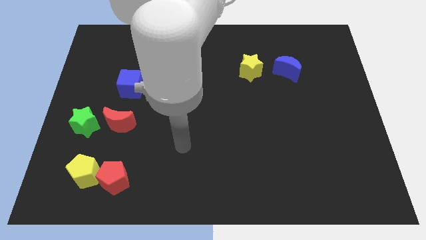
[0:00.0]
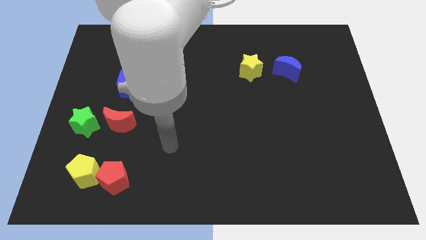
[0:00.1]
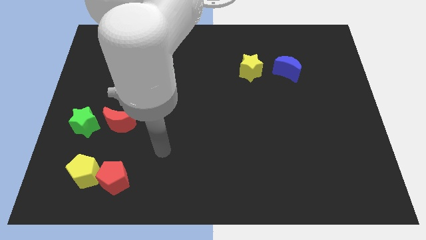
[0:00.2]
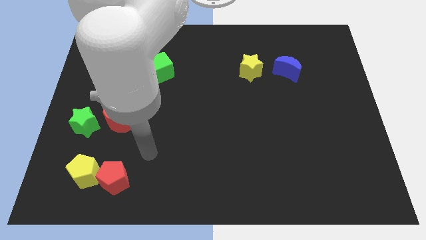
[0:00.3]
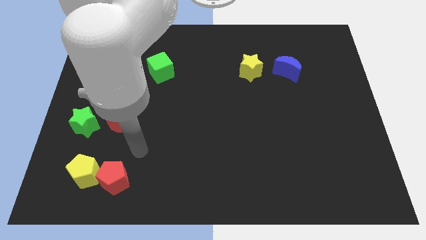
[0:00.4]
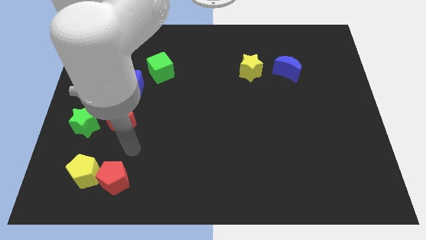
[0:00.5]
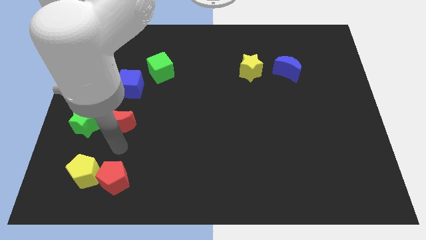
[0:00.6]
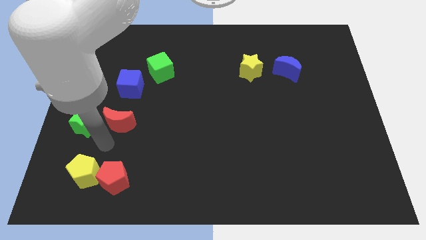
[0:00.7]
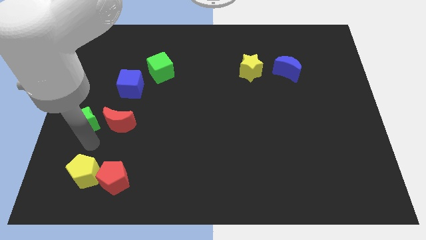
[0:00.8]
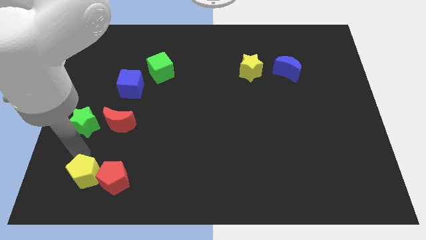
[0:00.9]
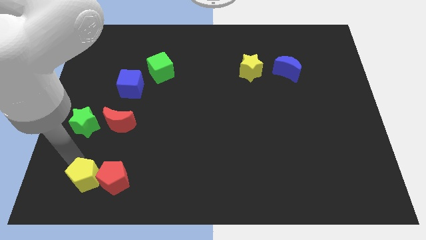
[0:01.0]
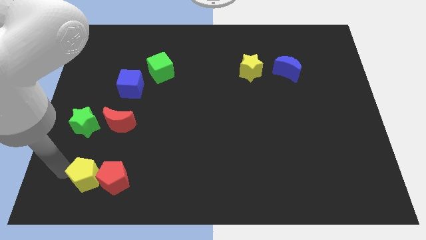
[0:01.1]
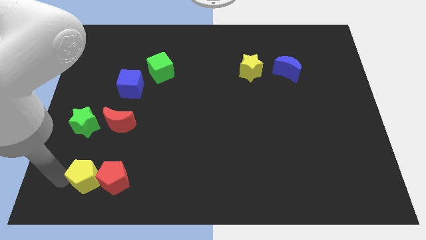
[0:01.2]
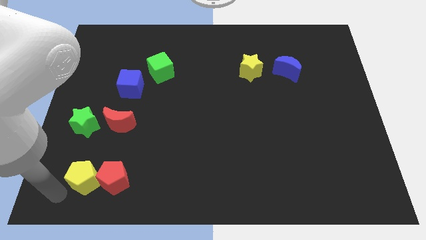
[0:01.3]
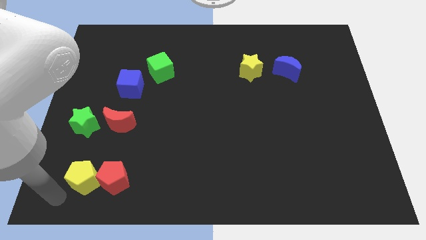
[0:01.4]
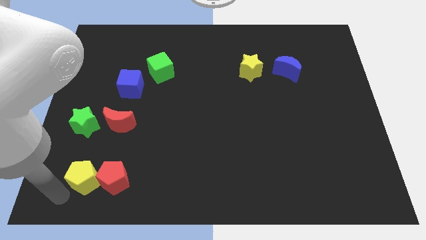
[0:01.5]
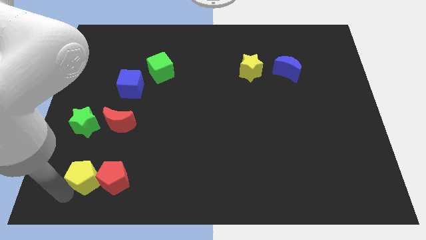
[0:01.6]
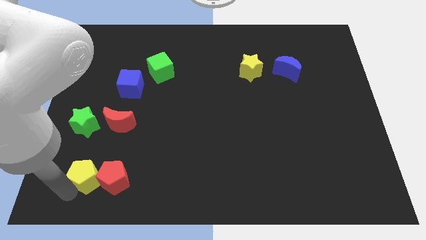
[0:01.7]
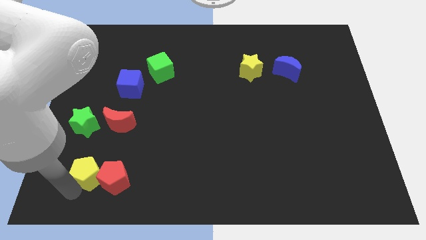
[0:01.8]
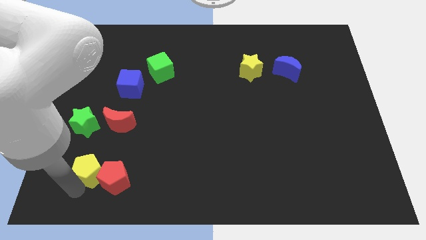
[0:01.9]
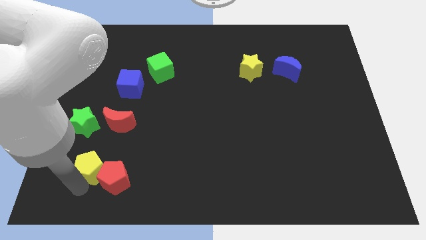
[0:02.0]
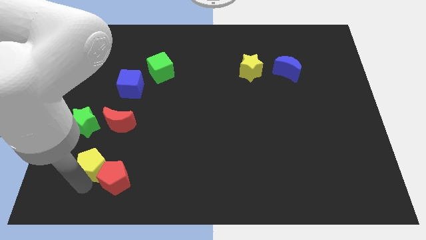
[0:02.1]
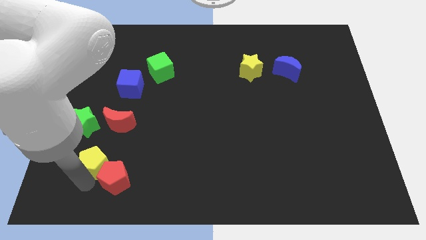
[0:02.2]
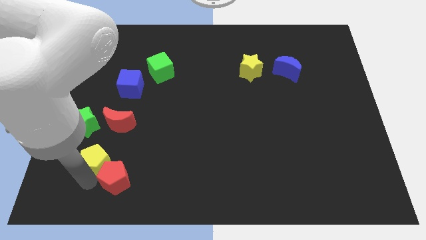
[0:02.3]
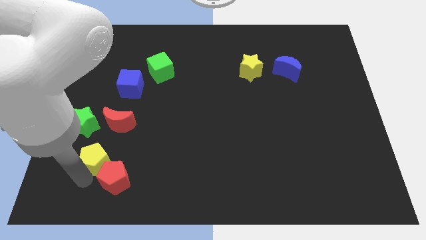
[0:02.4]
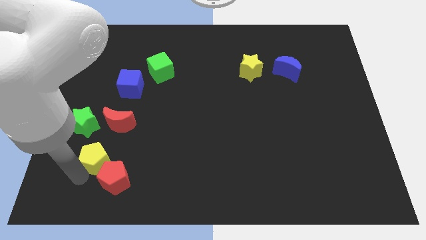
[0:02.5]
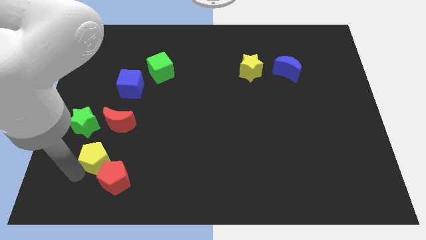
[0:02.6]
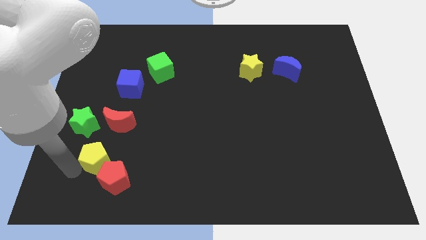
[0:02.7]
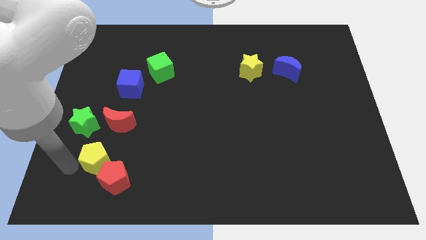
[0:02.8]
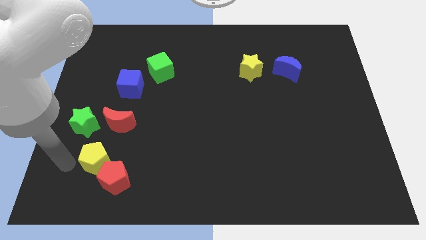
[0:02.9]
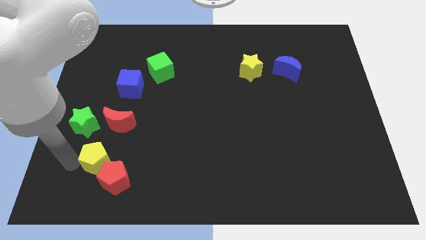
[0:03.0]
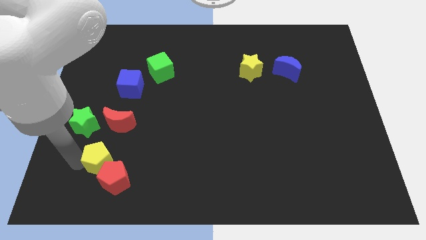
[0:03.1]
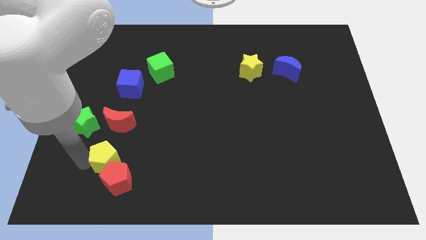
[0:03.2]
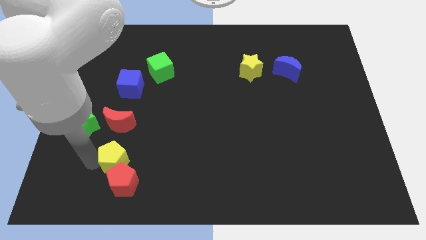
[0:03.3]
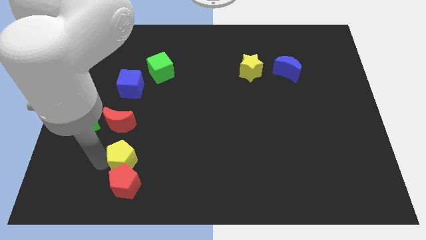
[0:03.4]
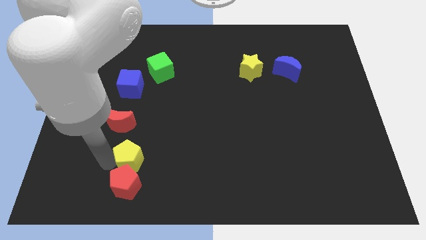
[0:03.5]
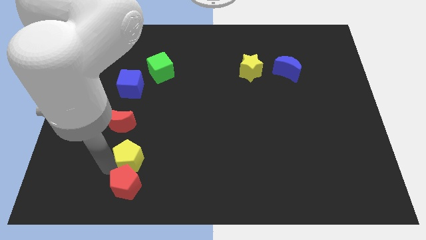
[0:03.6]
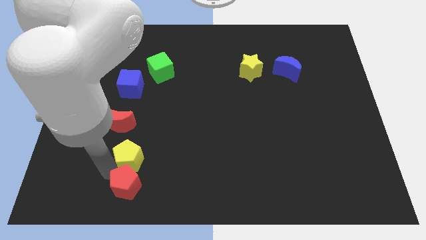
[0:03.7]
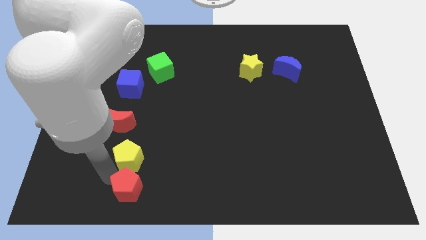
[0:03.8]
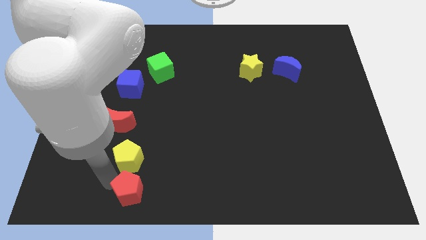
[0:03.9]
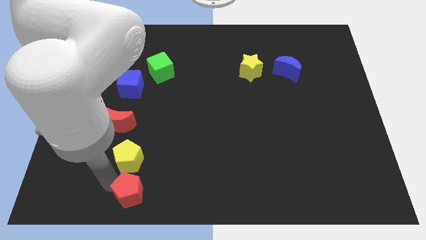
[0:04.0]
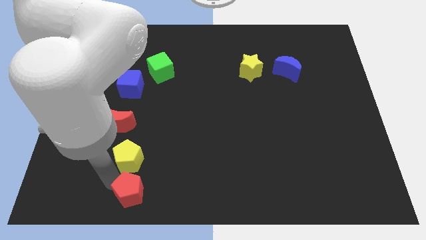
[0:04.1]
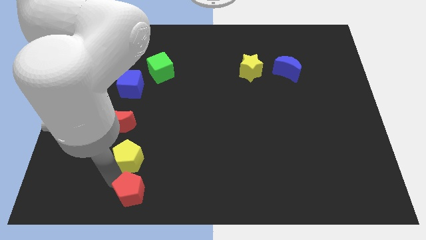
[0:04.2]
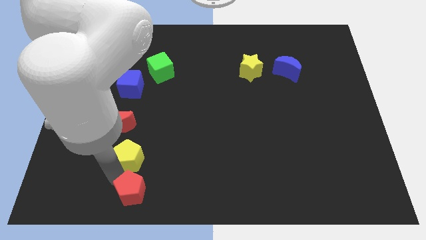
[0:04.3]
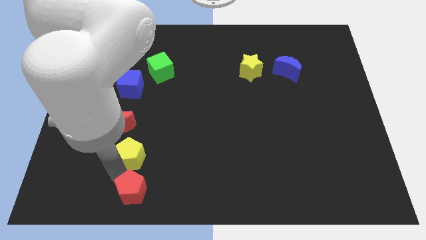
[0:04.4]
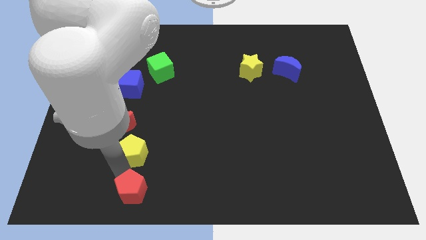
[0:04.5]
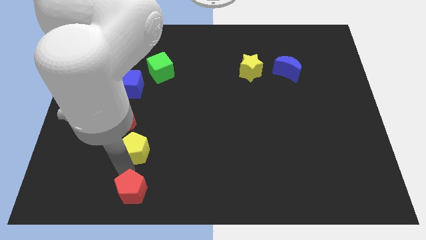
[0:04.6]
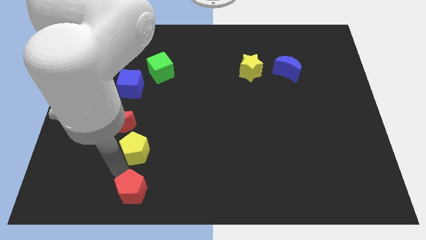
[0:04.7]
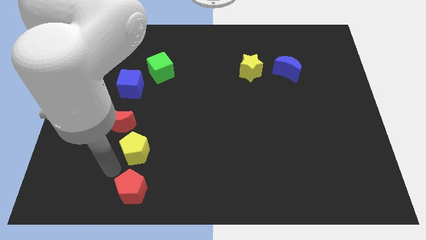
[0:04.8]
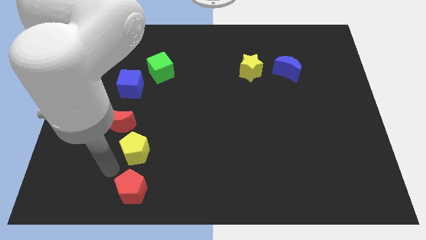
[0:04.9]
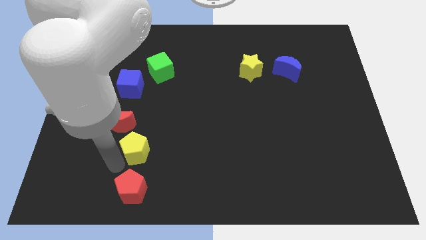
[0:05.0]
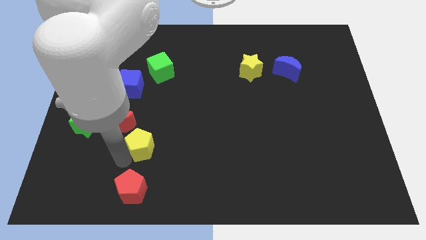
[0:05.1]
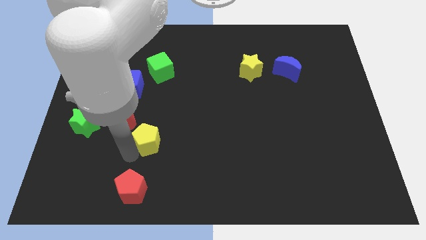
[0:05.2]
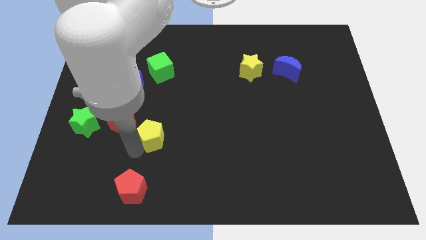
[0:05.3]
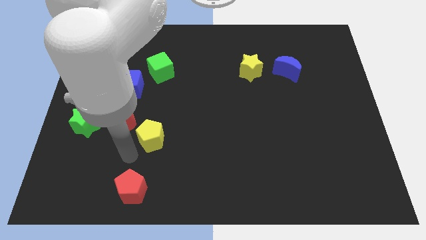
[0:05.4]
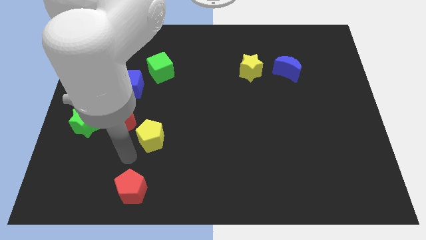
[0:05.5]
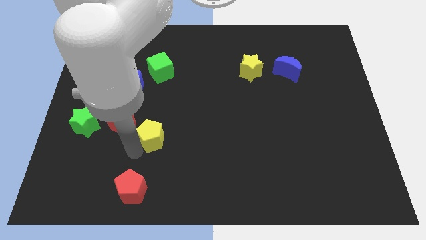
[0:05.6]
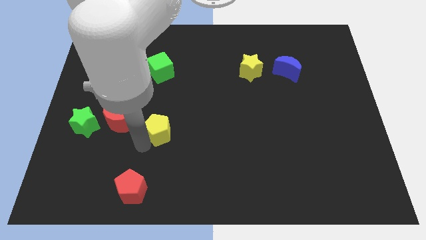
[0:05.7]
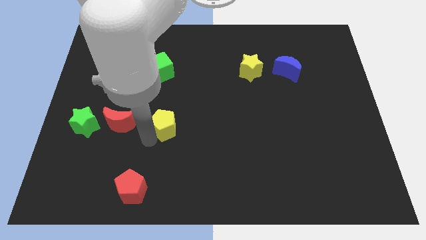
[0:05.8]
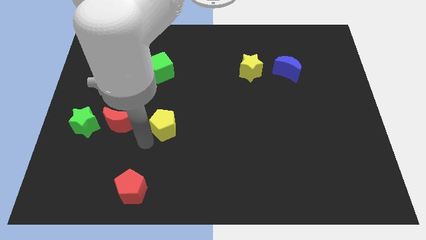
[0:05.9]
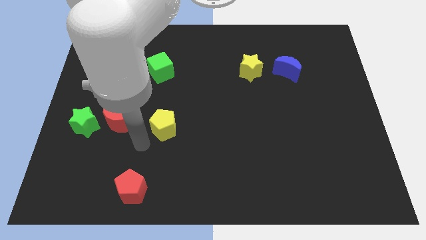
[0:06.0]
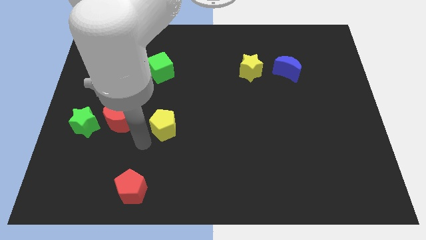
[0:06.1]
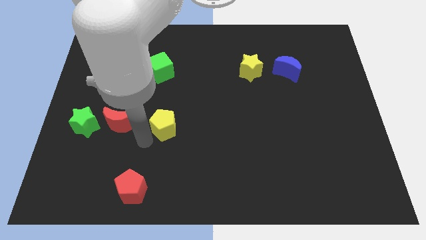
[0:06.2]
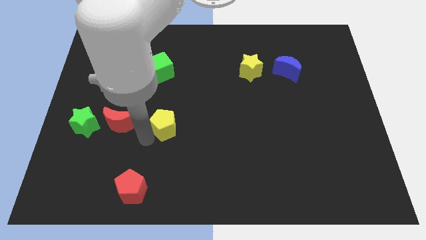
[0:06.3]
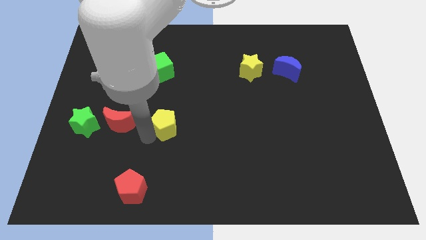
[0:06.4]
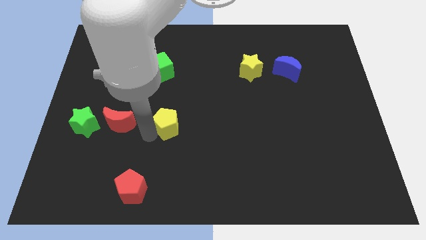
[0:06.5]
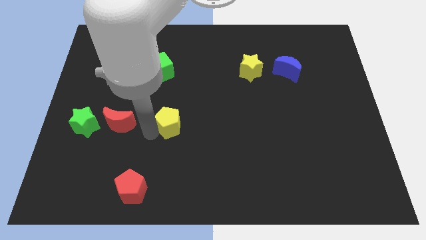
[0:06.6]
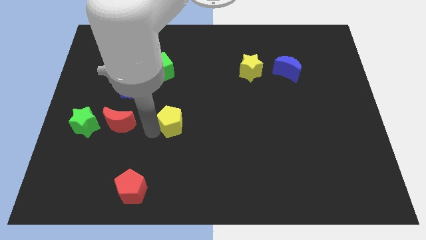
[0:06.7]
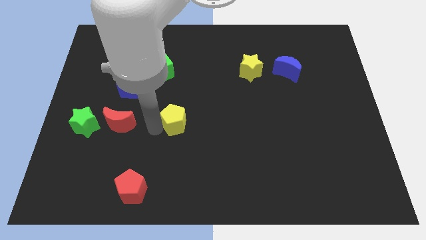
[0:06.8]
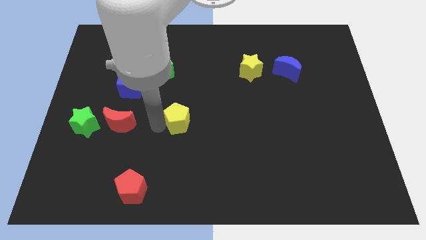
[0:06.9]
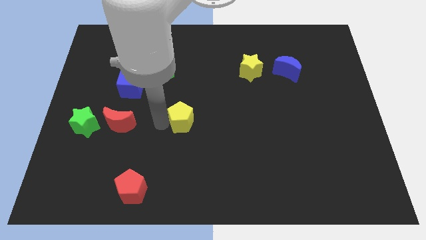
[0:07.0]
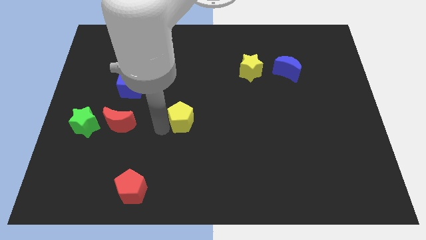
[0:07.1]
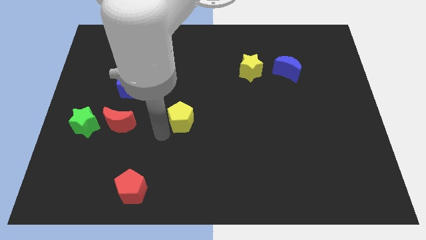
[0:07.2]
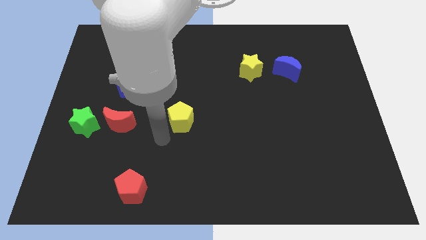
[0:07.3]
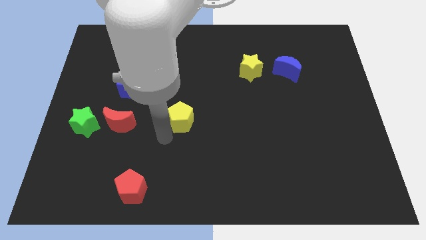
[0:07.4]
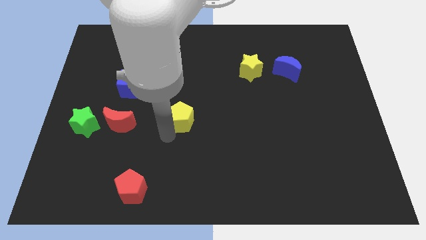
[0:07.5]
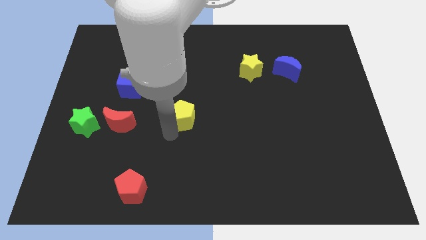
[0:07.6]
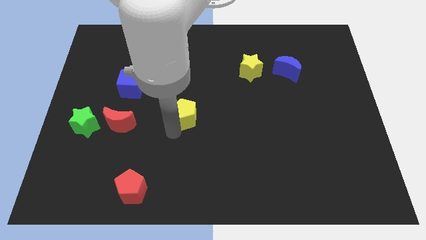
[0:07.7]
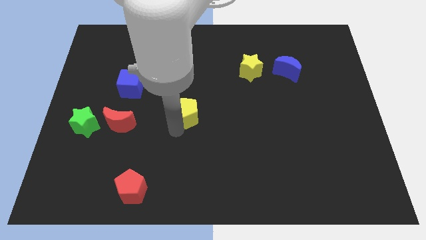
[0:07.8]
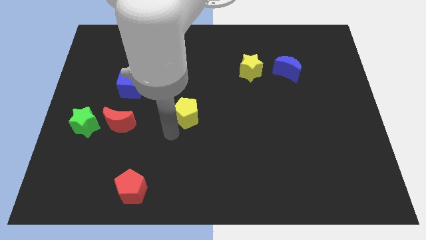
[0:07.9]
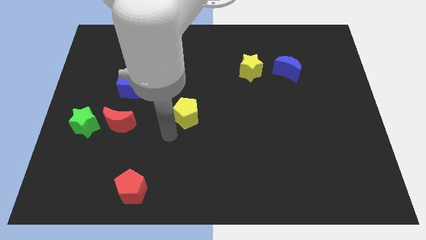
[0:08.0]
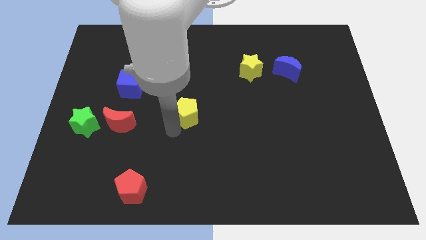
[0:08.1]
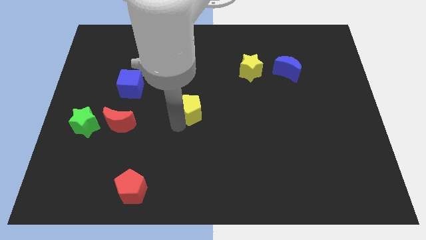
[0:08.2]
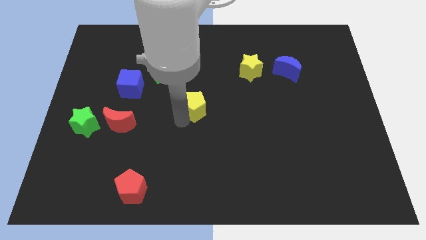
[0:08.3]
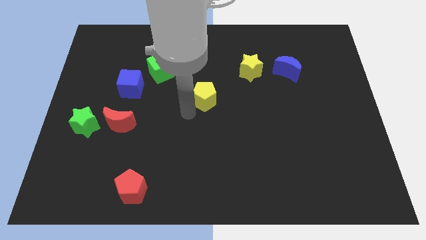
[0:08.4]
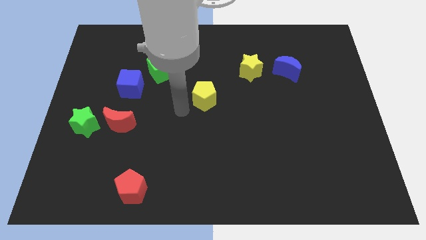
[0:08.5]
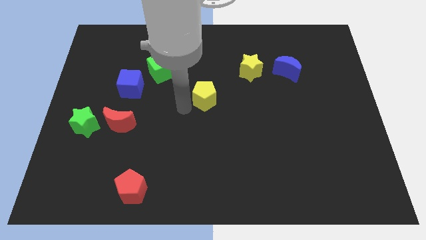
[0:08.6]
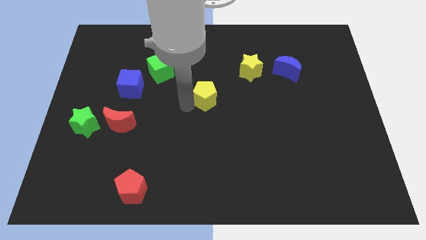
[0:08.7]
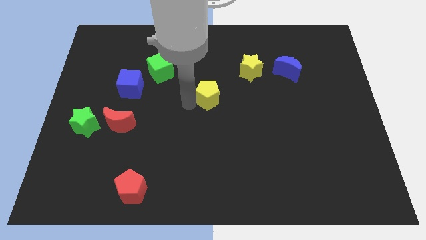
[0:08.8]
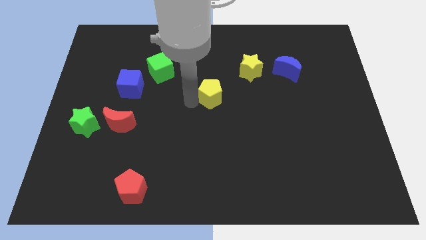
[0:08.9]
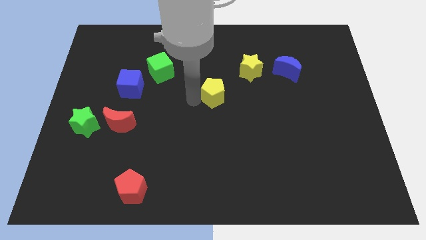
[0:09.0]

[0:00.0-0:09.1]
put the yellow pentagon to the bottom left of the yellow star
